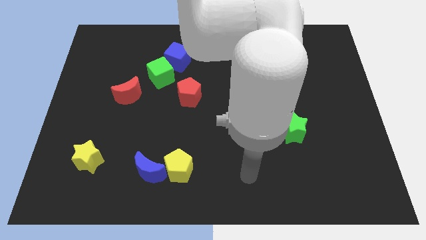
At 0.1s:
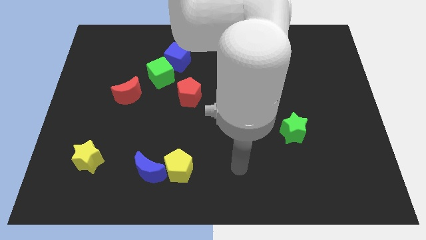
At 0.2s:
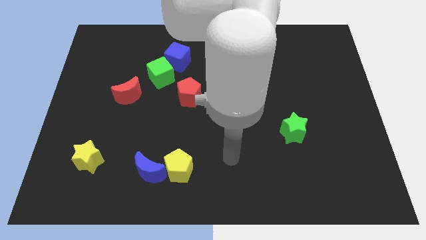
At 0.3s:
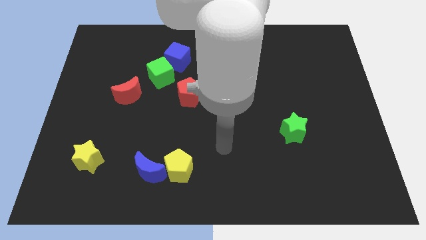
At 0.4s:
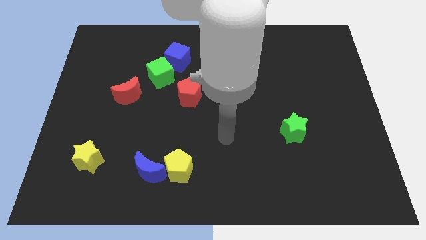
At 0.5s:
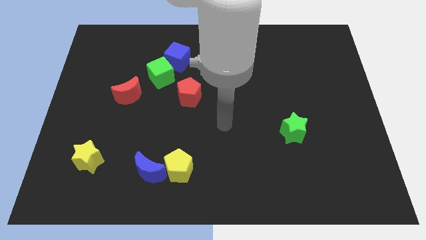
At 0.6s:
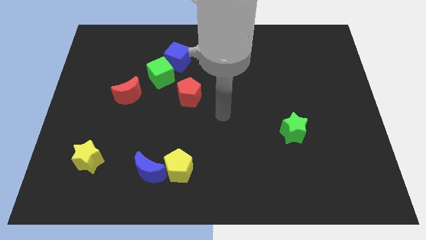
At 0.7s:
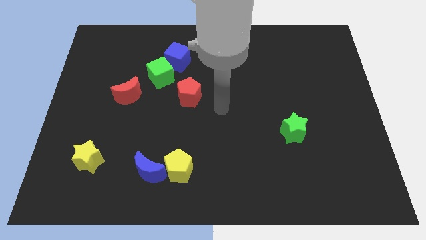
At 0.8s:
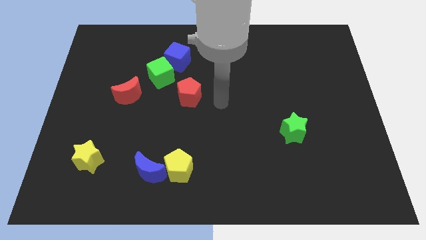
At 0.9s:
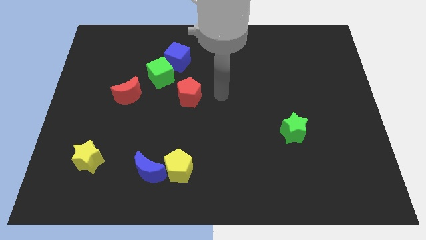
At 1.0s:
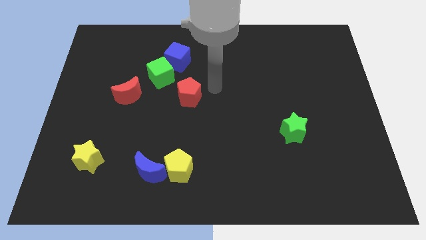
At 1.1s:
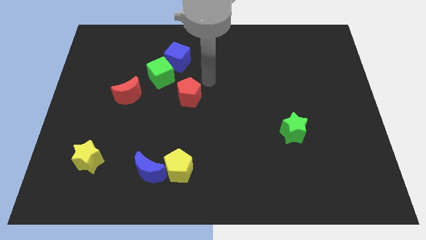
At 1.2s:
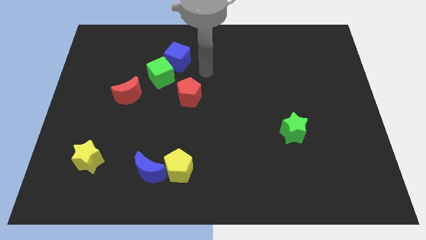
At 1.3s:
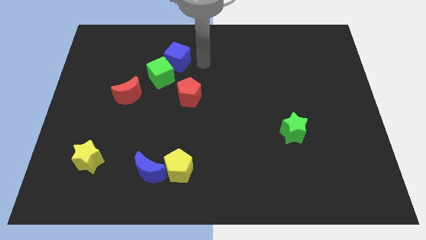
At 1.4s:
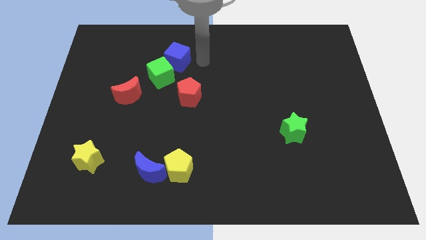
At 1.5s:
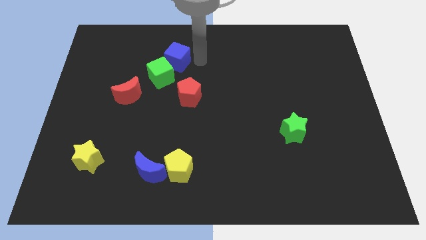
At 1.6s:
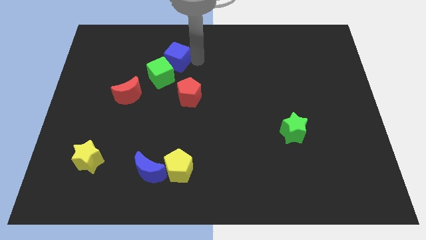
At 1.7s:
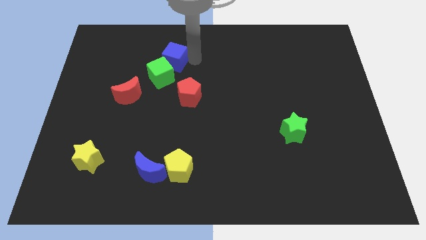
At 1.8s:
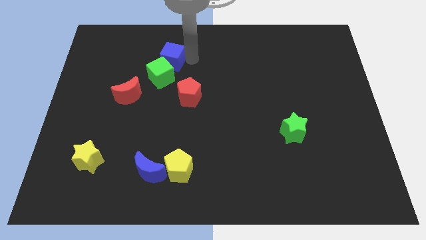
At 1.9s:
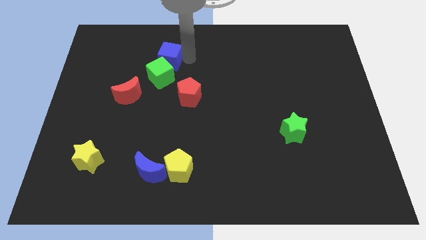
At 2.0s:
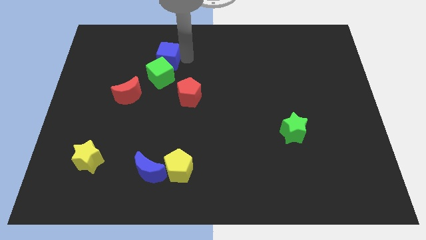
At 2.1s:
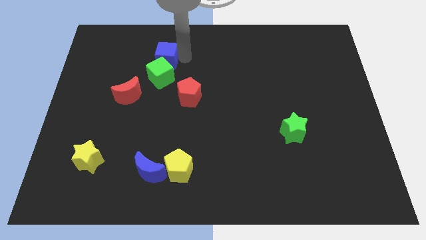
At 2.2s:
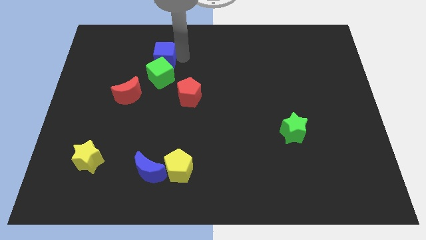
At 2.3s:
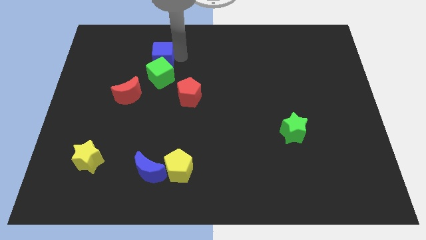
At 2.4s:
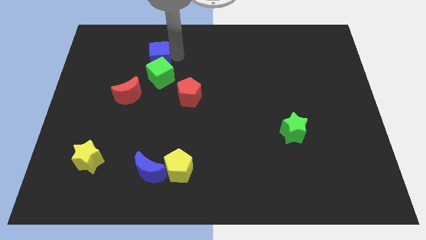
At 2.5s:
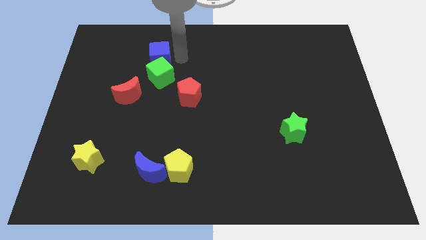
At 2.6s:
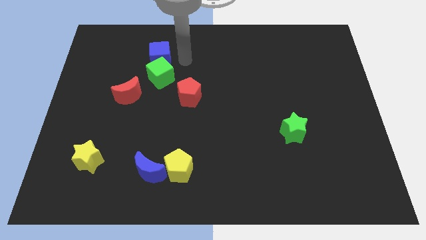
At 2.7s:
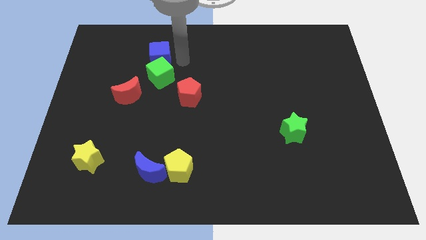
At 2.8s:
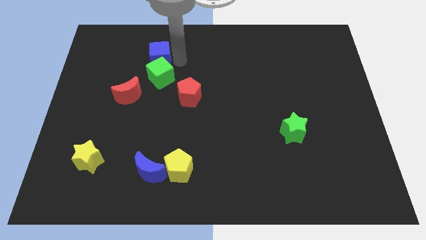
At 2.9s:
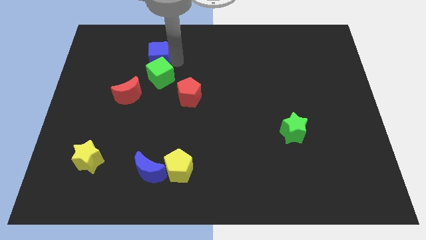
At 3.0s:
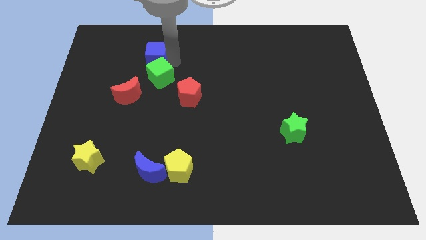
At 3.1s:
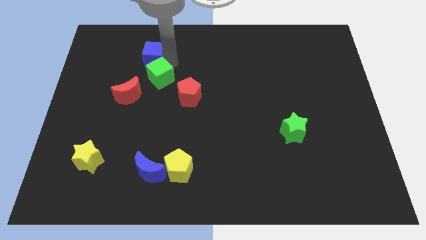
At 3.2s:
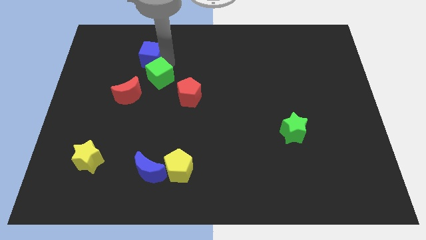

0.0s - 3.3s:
push the blue cube a little bit to the left

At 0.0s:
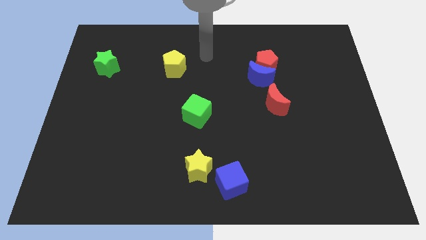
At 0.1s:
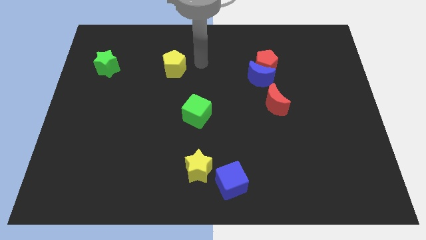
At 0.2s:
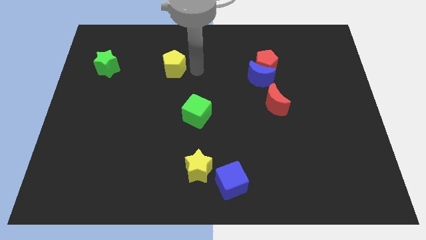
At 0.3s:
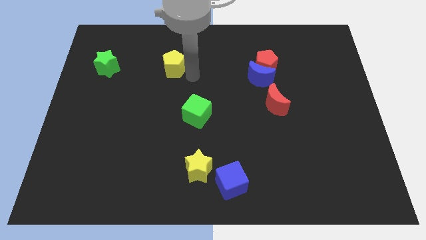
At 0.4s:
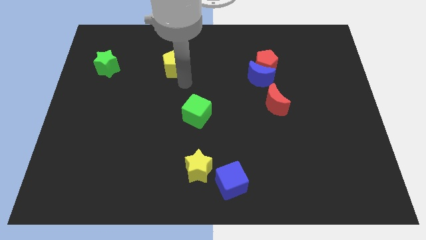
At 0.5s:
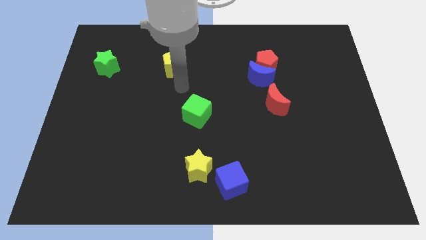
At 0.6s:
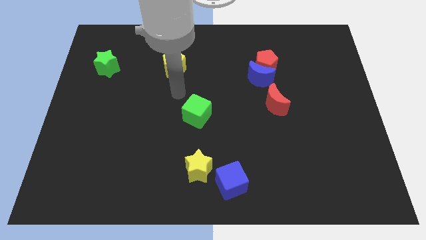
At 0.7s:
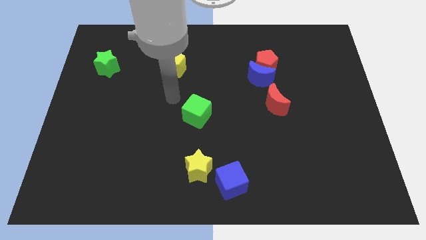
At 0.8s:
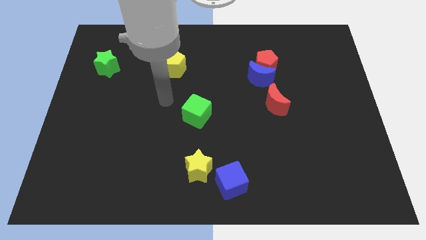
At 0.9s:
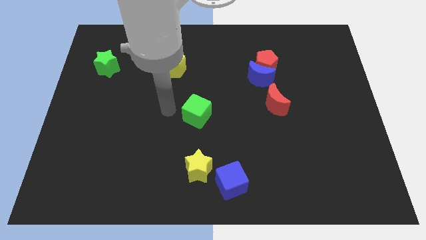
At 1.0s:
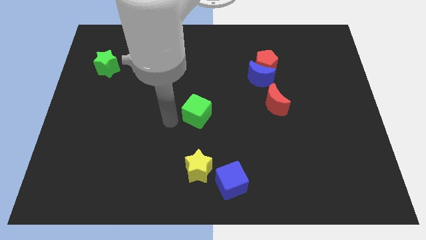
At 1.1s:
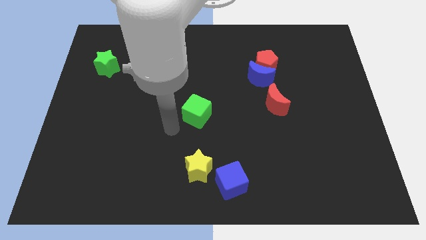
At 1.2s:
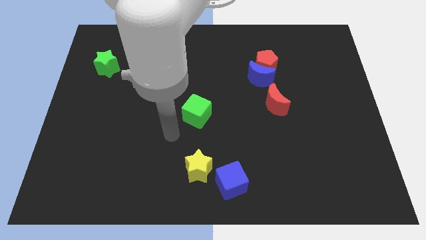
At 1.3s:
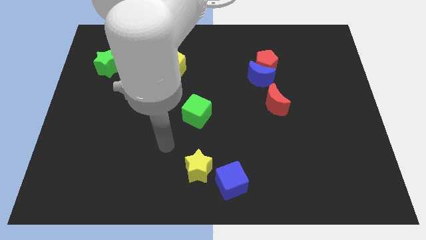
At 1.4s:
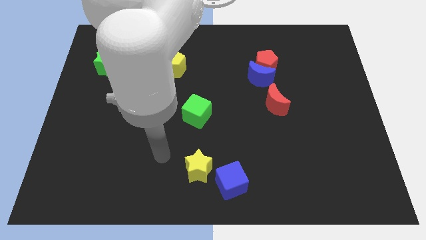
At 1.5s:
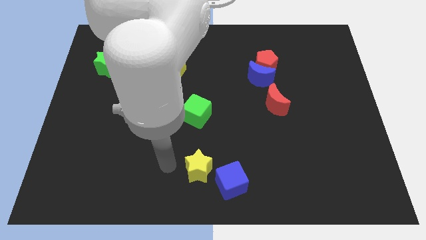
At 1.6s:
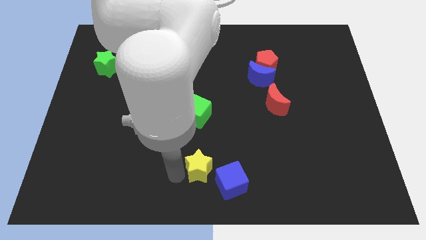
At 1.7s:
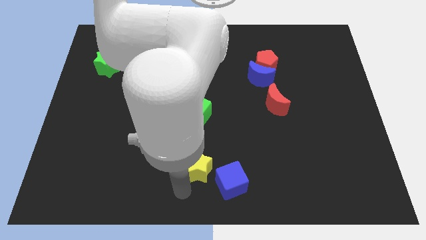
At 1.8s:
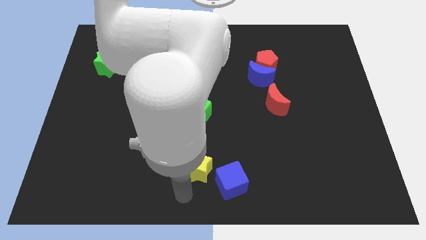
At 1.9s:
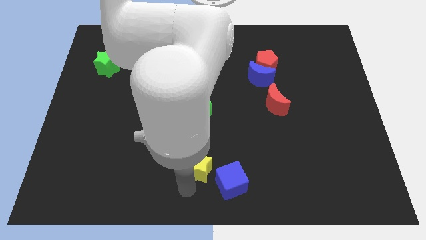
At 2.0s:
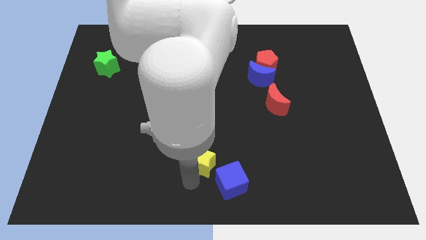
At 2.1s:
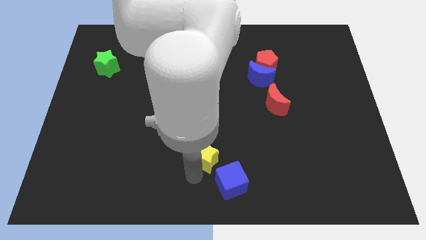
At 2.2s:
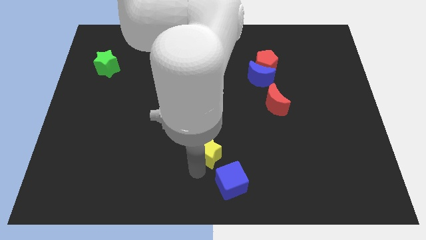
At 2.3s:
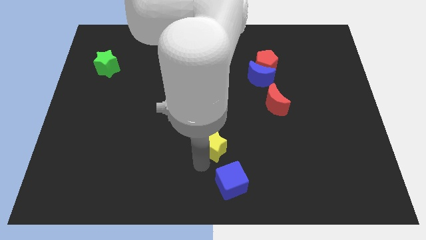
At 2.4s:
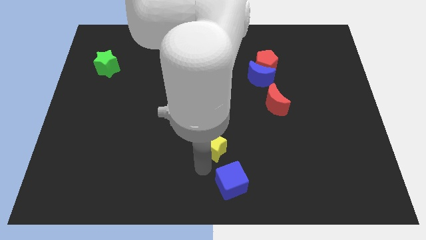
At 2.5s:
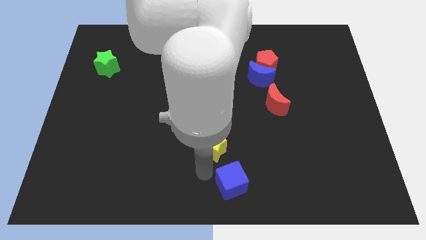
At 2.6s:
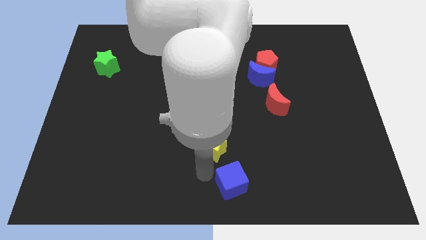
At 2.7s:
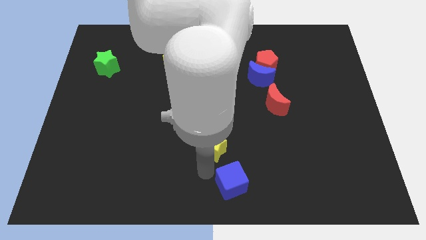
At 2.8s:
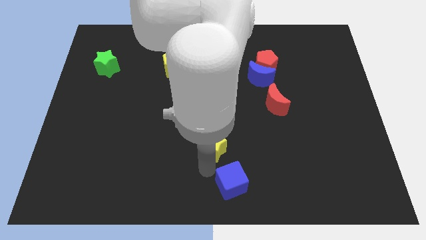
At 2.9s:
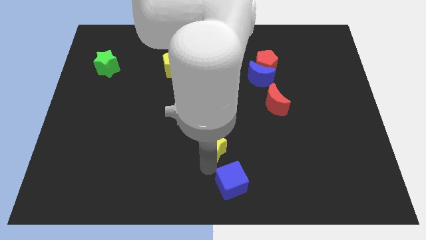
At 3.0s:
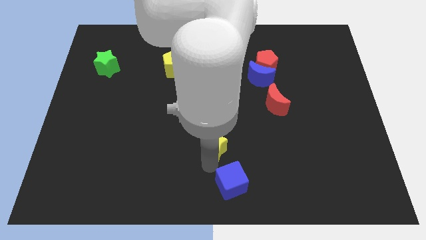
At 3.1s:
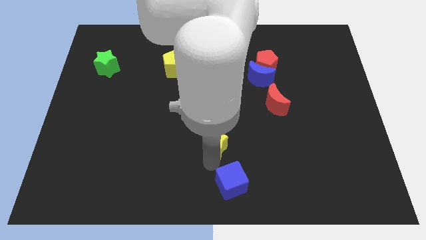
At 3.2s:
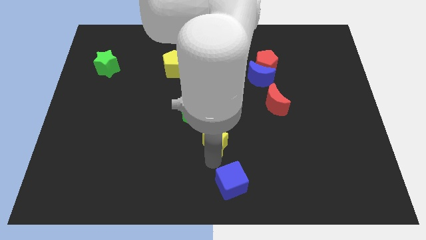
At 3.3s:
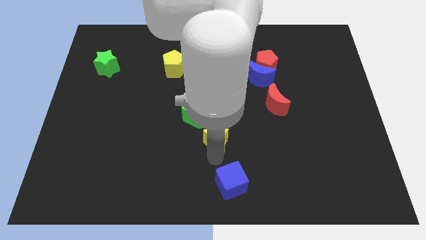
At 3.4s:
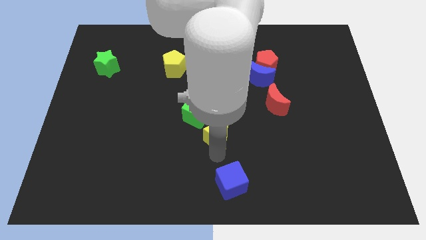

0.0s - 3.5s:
move the yellow star upwards a little

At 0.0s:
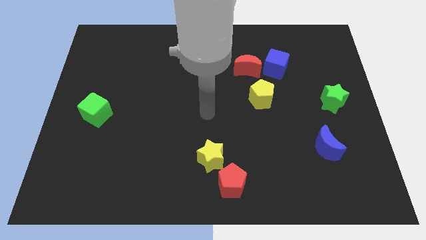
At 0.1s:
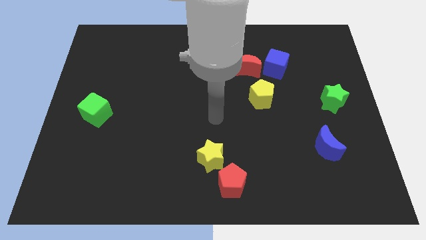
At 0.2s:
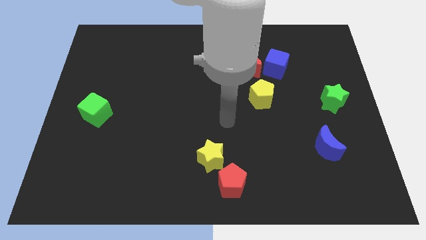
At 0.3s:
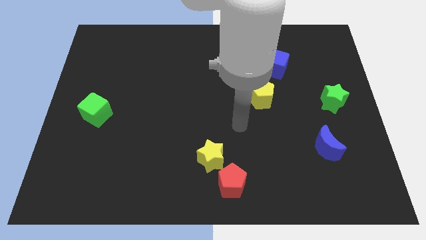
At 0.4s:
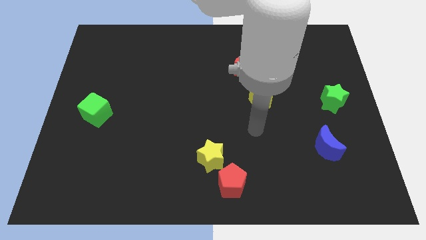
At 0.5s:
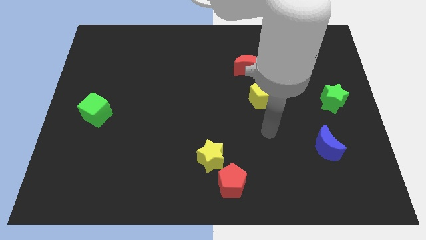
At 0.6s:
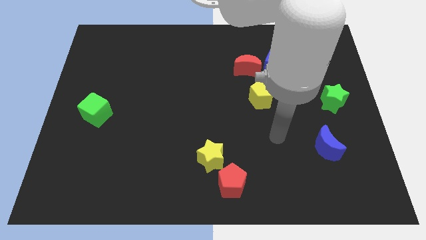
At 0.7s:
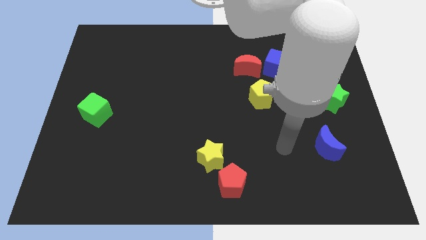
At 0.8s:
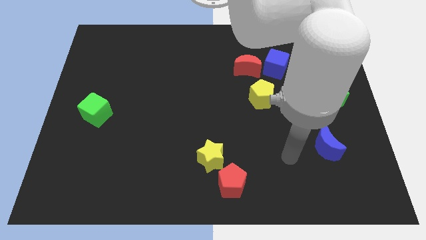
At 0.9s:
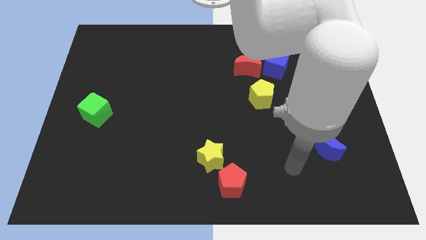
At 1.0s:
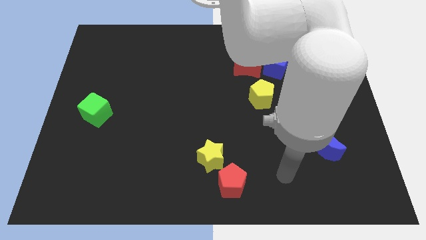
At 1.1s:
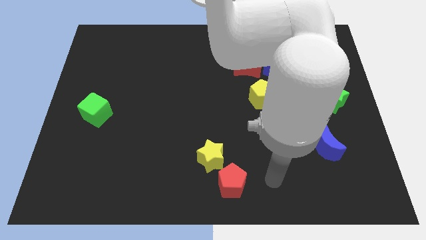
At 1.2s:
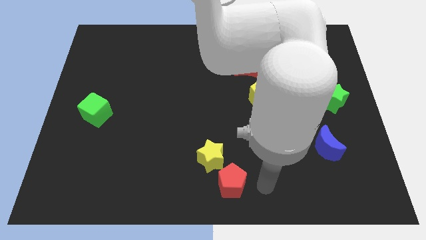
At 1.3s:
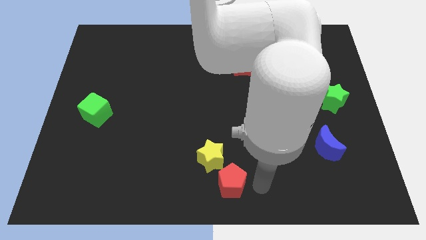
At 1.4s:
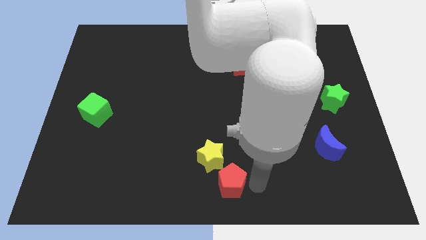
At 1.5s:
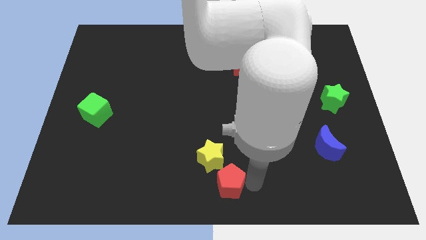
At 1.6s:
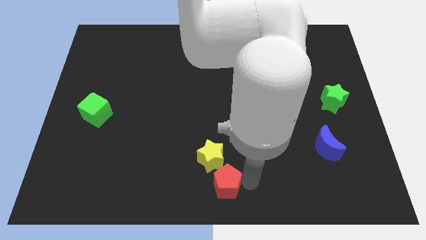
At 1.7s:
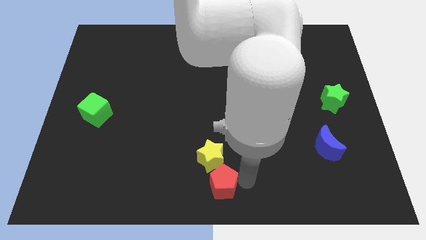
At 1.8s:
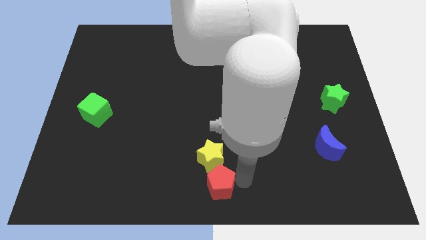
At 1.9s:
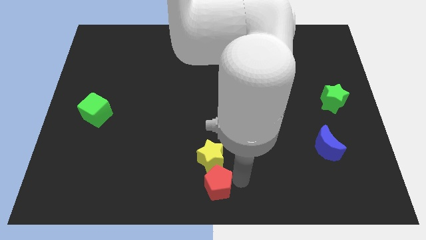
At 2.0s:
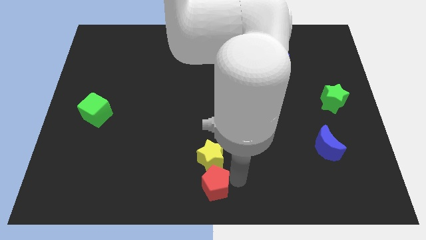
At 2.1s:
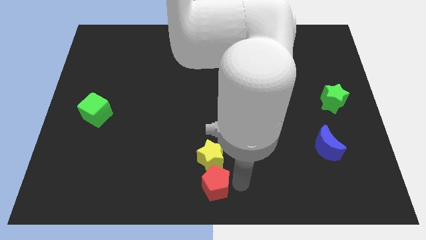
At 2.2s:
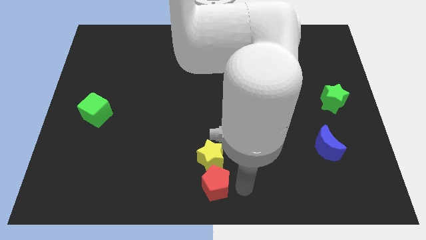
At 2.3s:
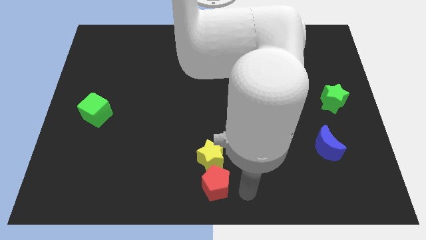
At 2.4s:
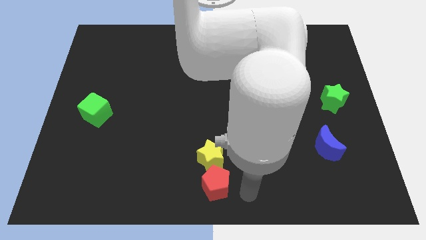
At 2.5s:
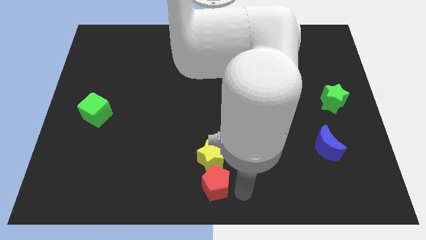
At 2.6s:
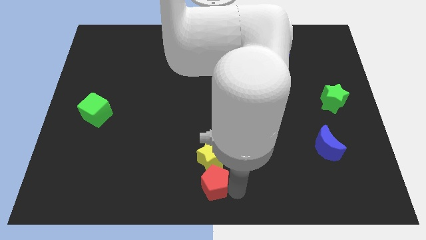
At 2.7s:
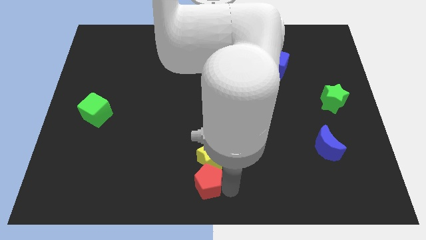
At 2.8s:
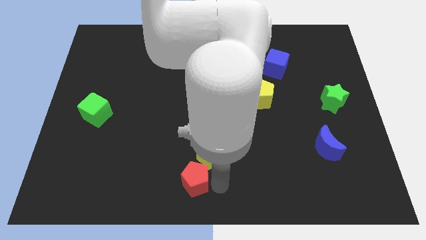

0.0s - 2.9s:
move the red pentagon to the left a little
